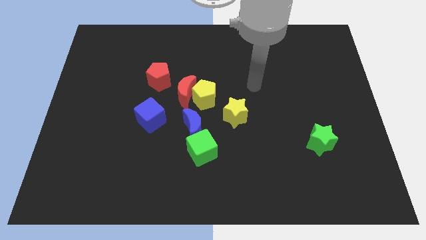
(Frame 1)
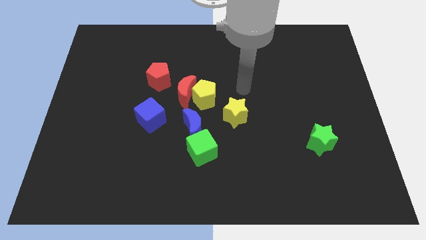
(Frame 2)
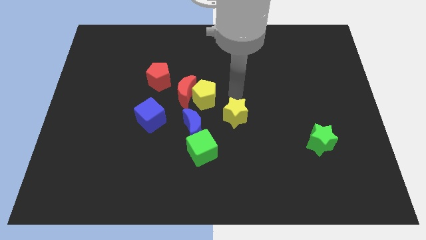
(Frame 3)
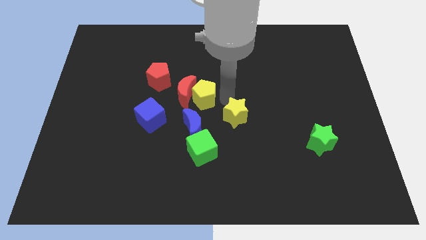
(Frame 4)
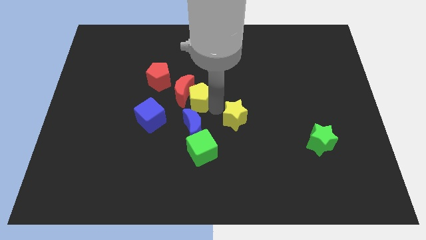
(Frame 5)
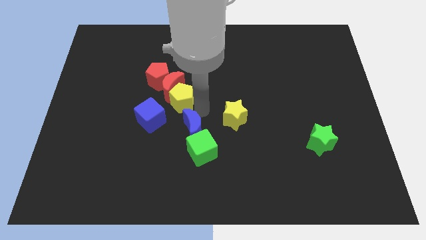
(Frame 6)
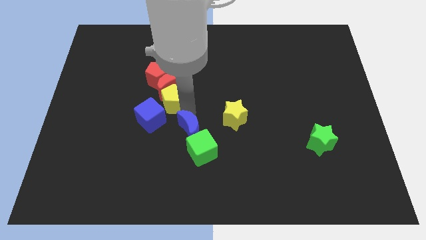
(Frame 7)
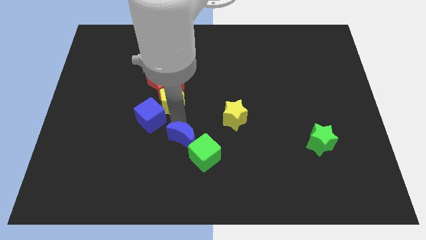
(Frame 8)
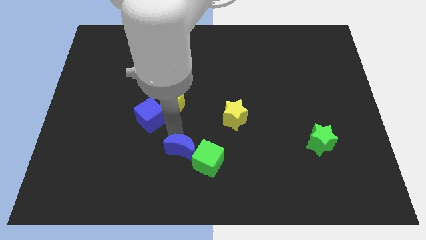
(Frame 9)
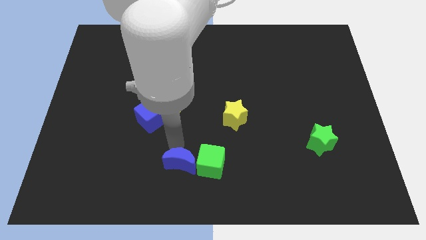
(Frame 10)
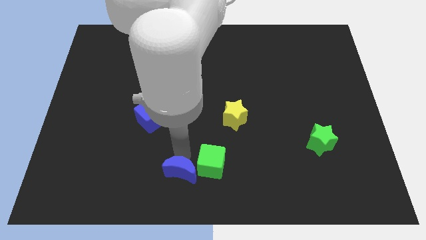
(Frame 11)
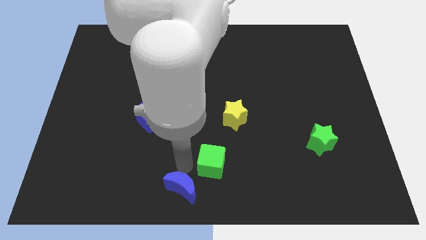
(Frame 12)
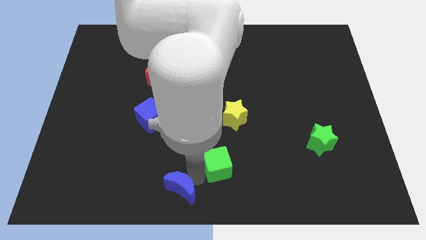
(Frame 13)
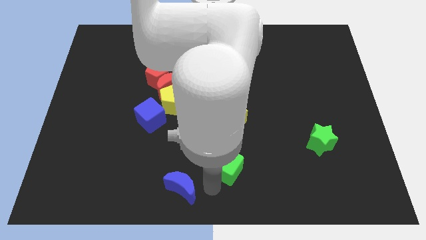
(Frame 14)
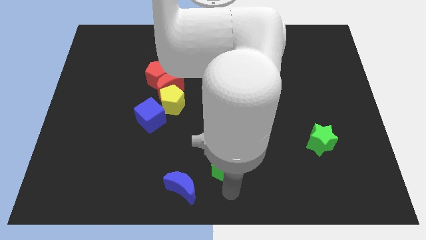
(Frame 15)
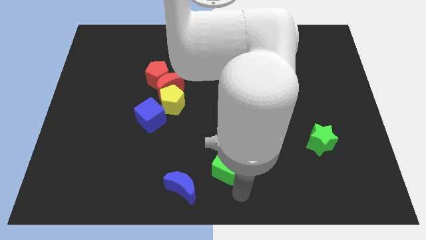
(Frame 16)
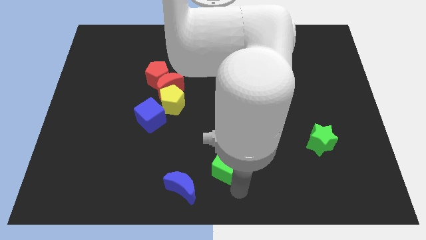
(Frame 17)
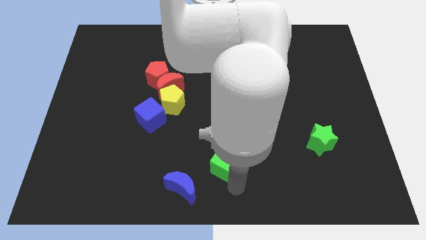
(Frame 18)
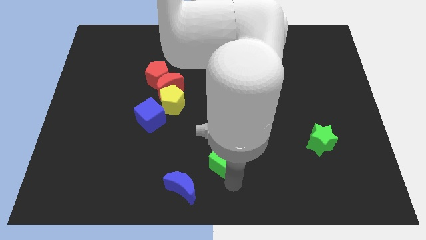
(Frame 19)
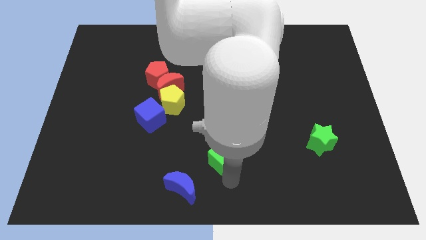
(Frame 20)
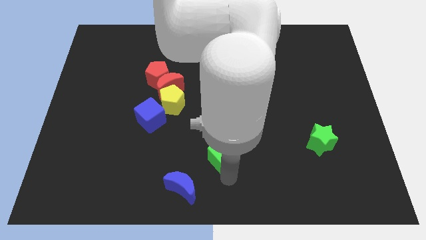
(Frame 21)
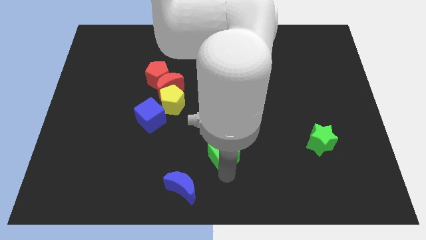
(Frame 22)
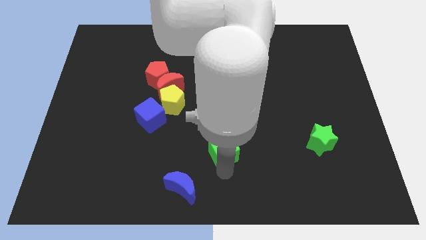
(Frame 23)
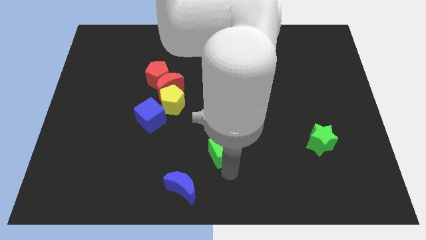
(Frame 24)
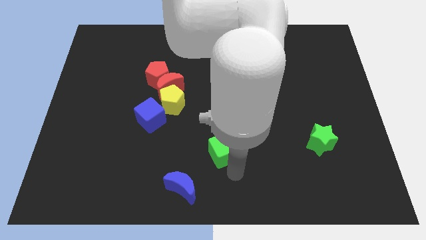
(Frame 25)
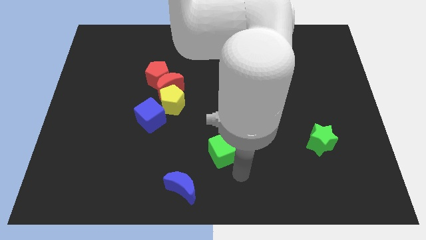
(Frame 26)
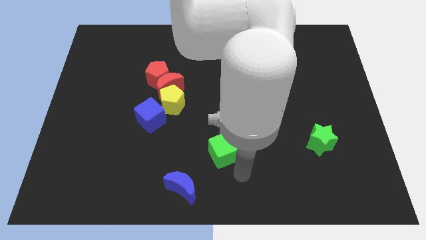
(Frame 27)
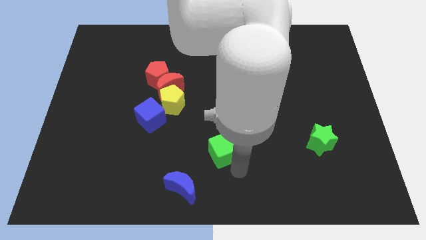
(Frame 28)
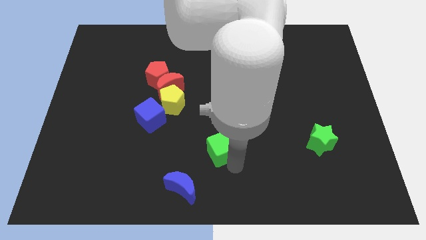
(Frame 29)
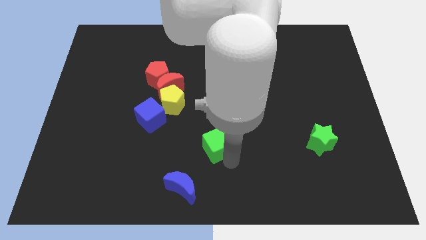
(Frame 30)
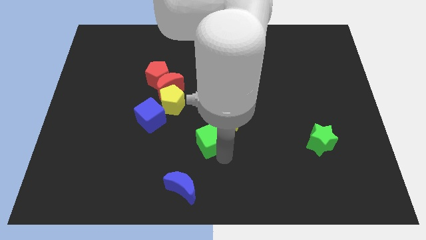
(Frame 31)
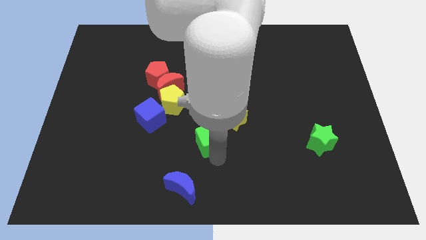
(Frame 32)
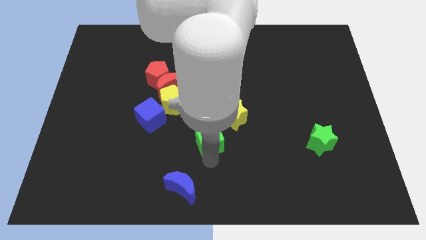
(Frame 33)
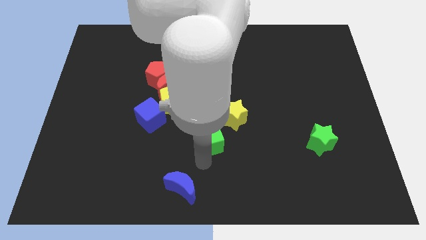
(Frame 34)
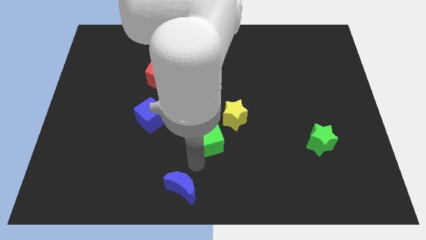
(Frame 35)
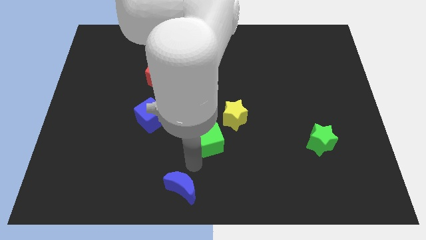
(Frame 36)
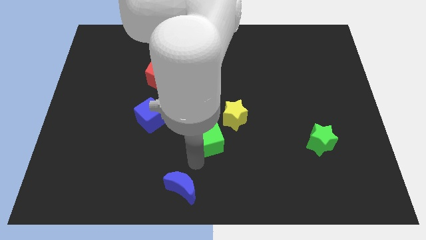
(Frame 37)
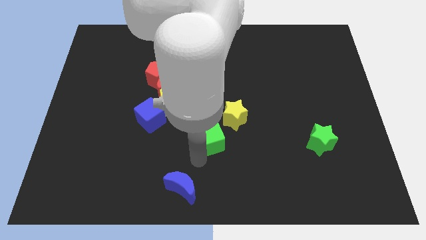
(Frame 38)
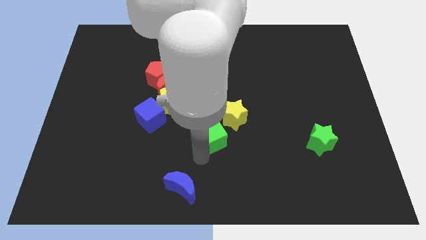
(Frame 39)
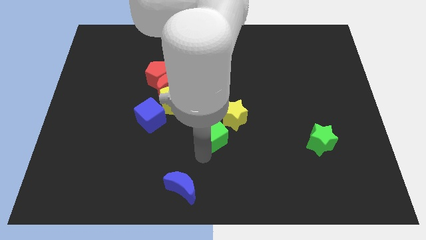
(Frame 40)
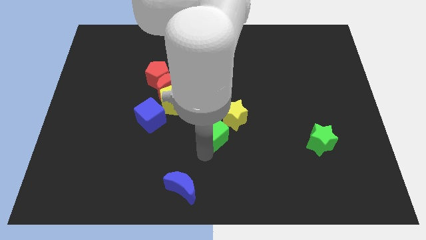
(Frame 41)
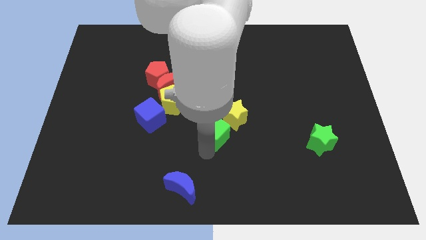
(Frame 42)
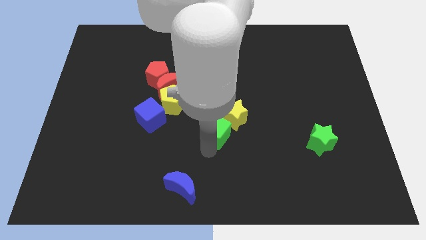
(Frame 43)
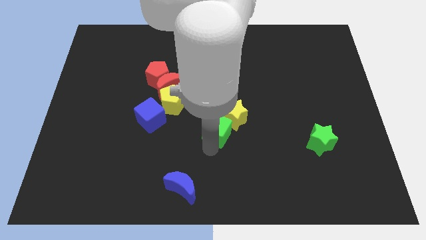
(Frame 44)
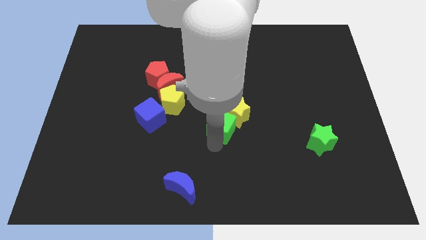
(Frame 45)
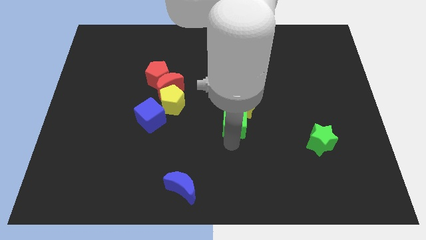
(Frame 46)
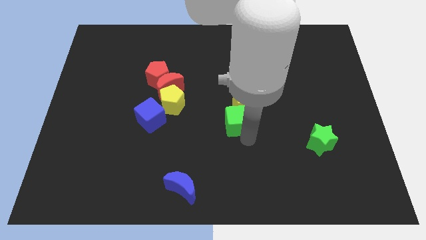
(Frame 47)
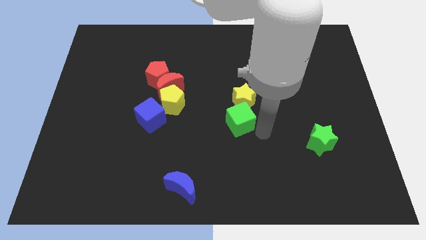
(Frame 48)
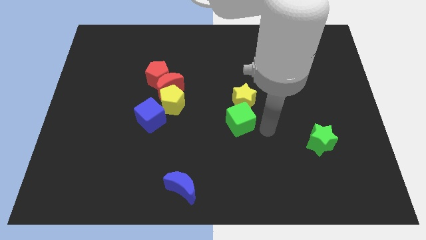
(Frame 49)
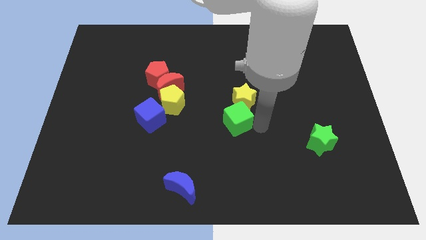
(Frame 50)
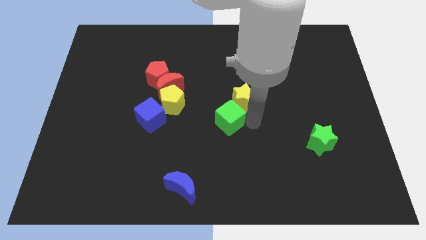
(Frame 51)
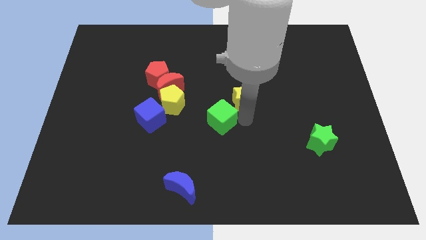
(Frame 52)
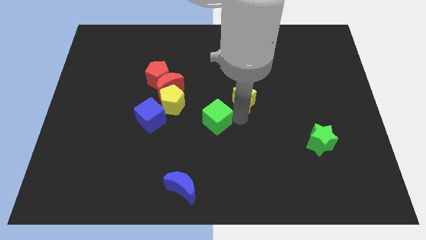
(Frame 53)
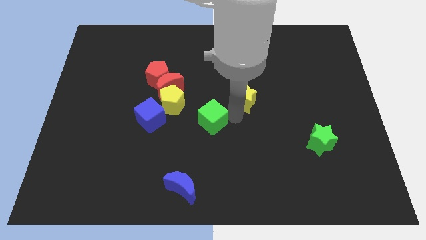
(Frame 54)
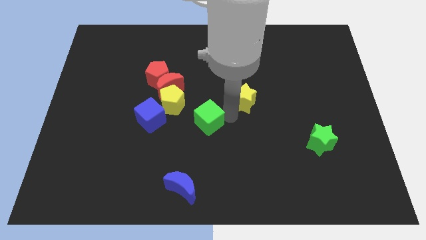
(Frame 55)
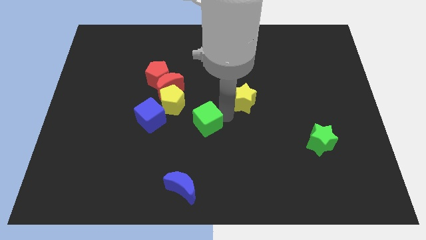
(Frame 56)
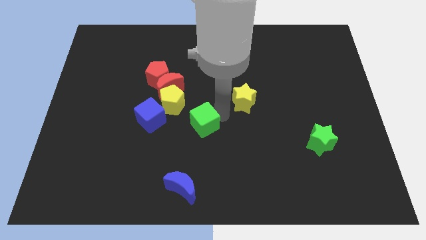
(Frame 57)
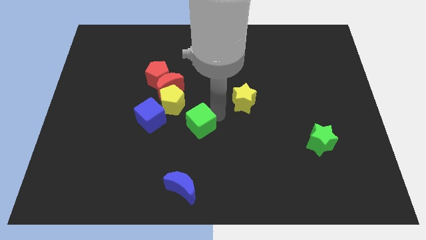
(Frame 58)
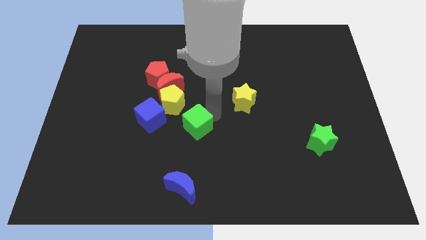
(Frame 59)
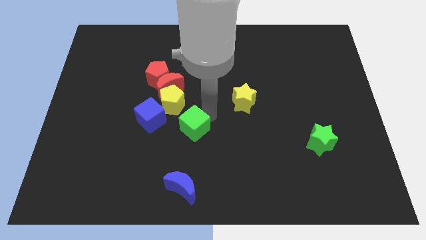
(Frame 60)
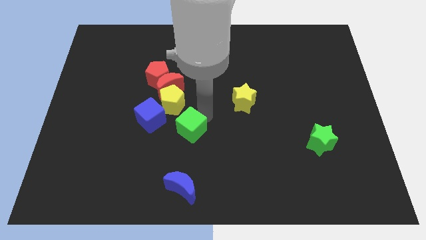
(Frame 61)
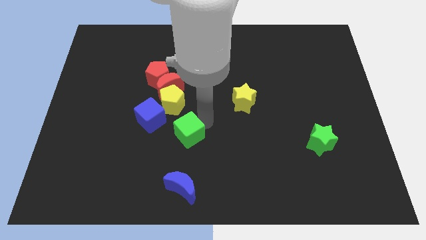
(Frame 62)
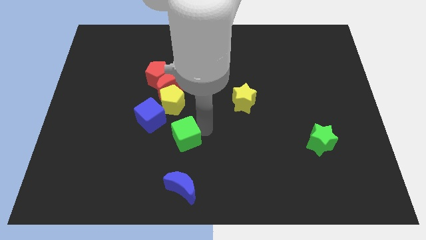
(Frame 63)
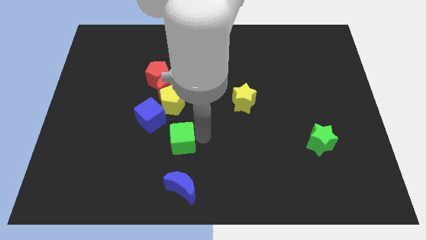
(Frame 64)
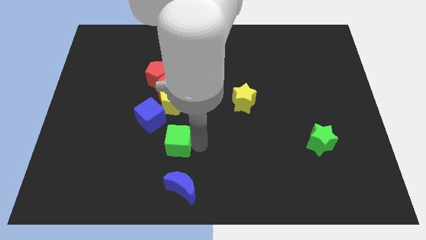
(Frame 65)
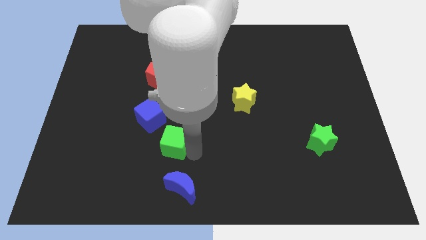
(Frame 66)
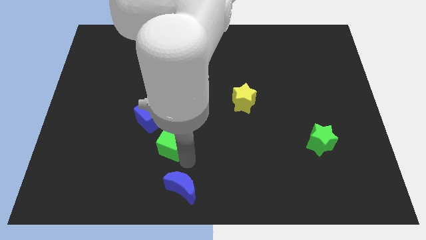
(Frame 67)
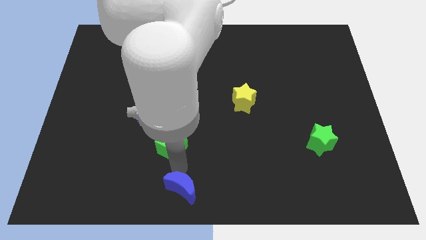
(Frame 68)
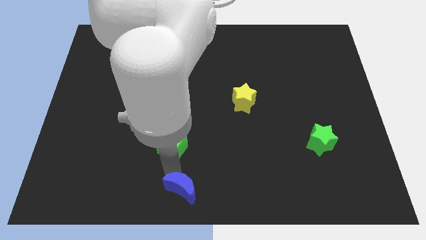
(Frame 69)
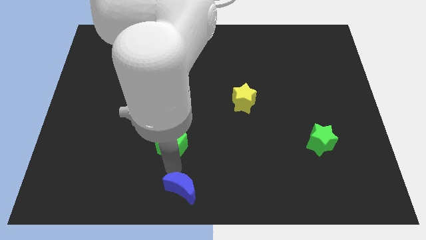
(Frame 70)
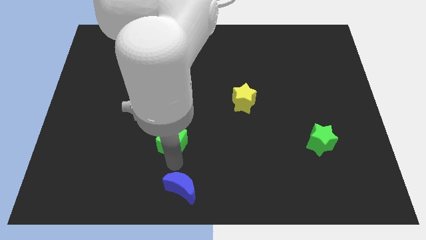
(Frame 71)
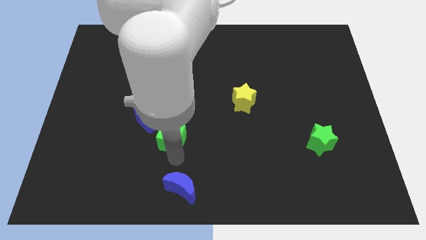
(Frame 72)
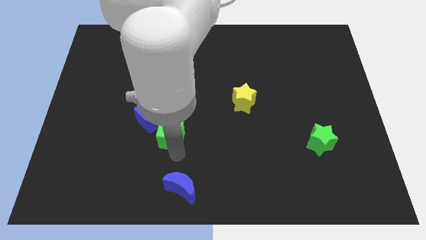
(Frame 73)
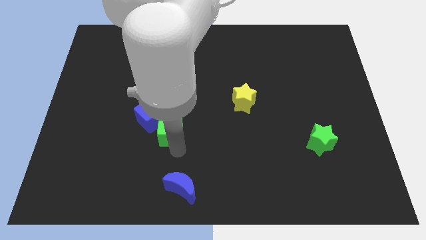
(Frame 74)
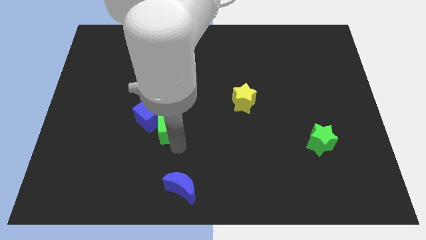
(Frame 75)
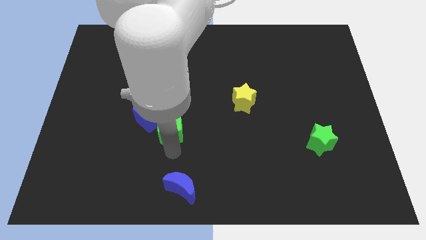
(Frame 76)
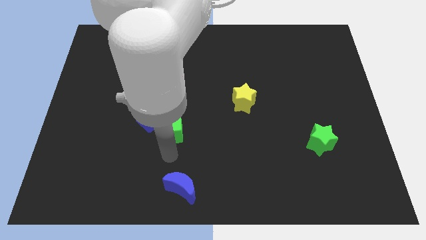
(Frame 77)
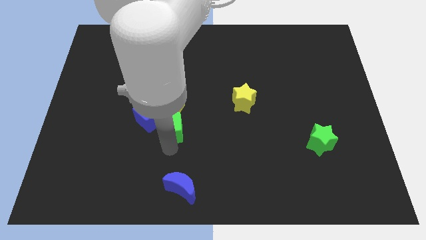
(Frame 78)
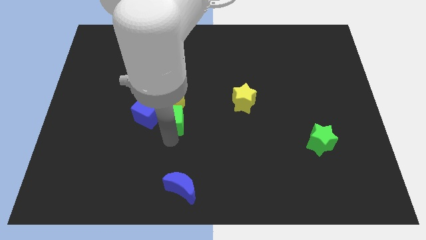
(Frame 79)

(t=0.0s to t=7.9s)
slide the green cube next to the yellow pentagon
